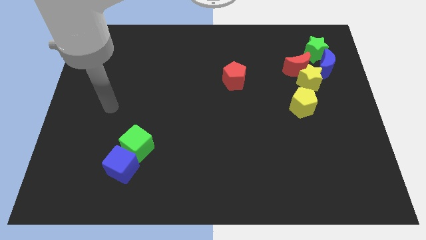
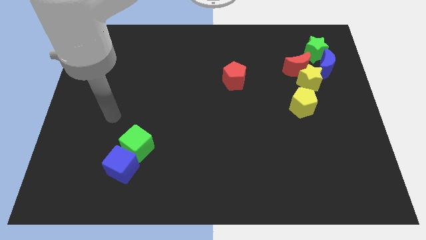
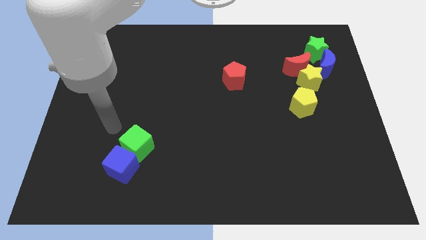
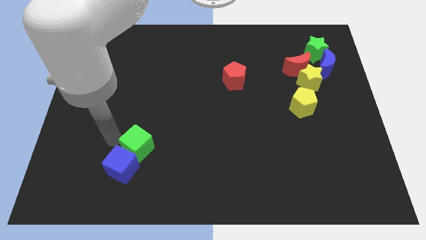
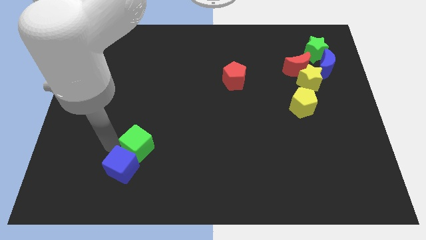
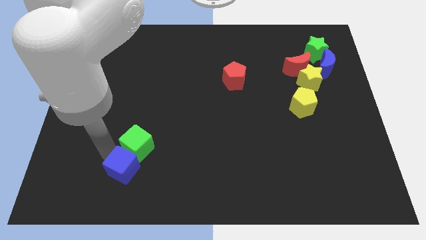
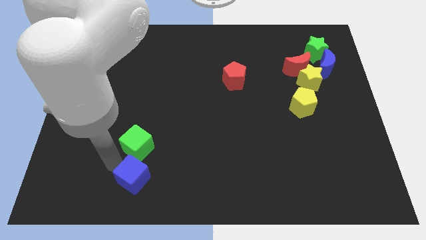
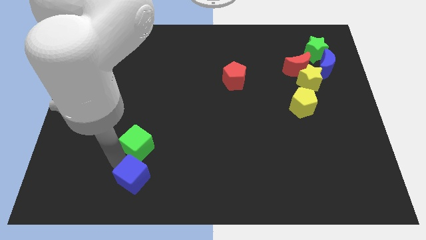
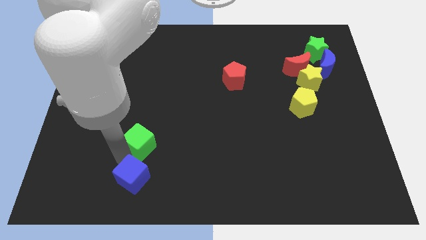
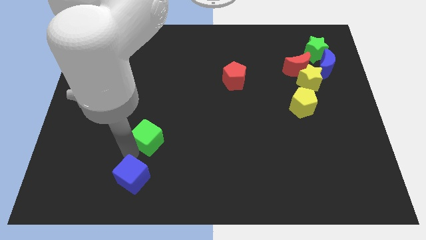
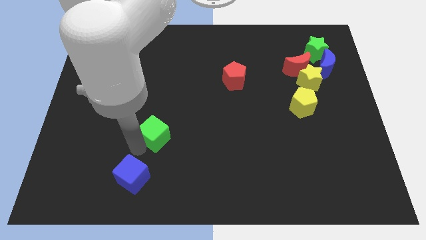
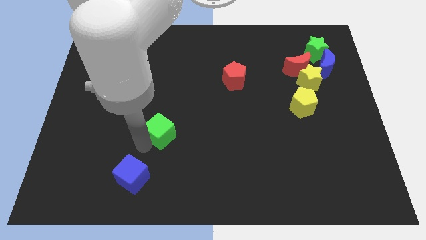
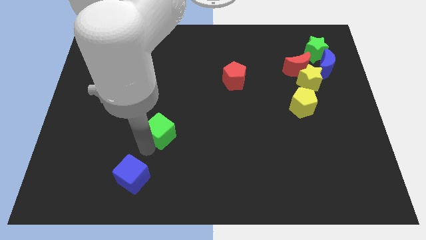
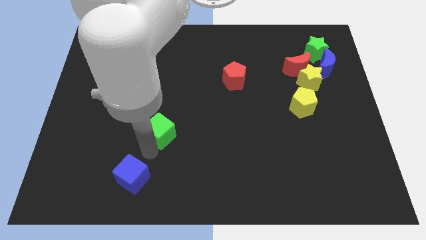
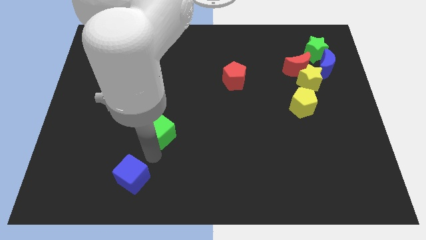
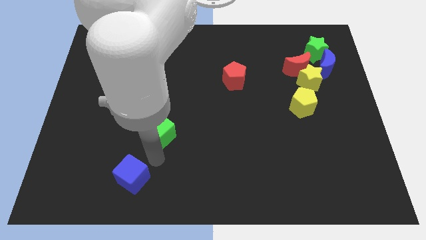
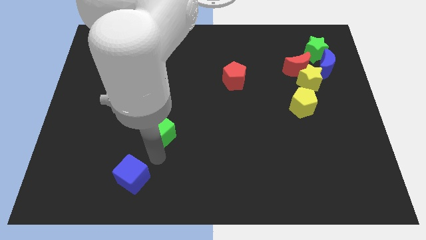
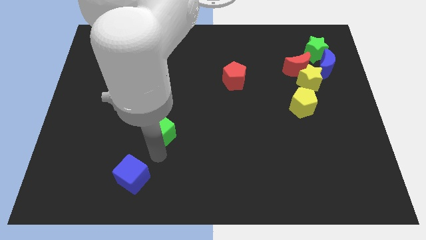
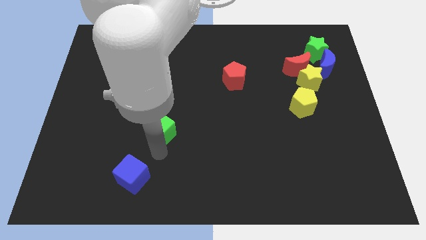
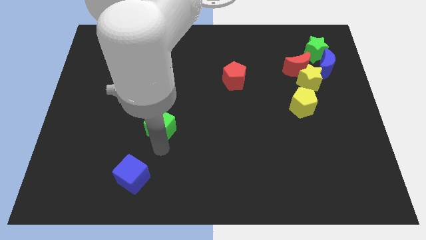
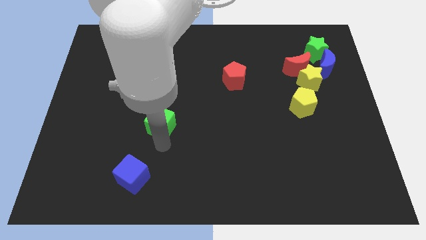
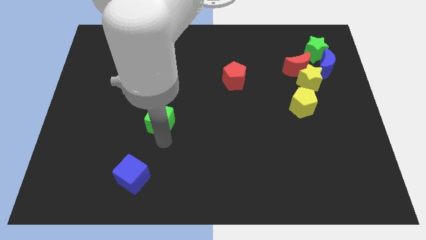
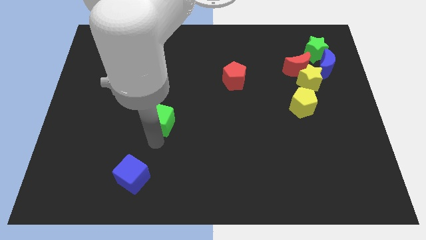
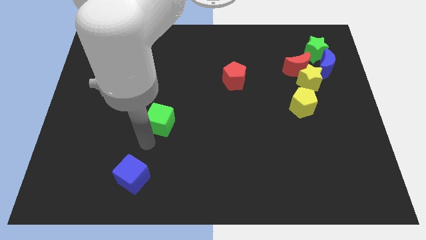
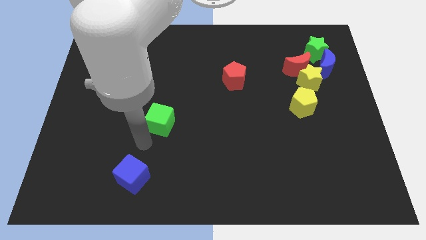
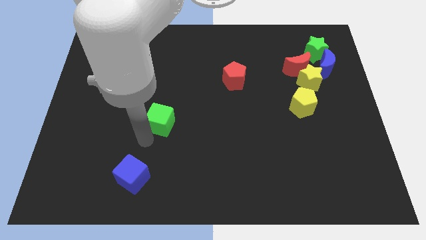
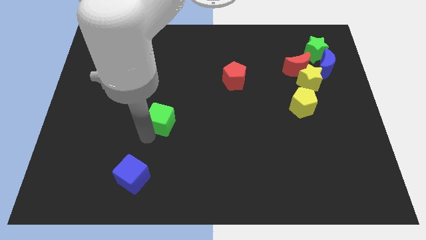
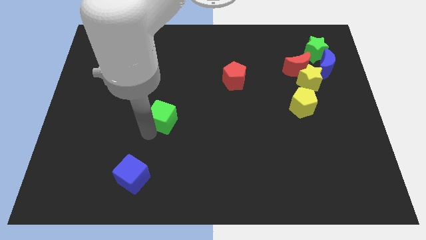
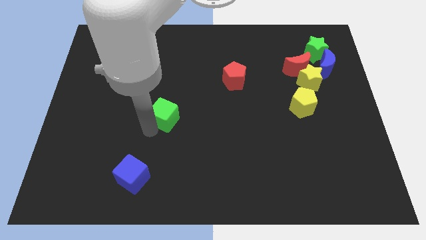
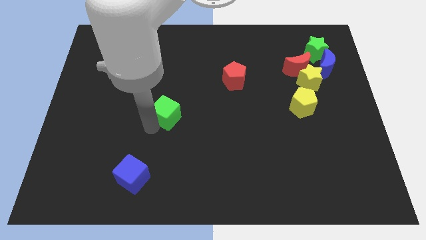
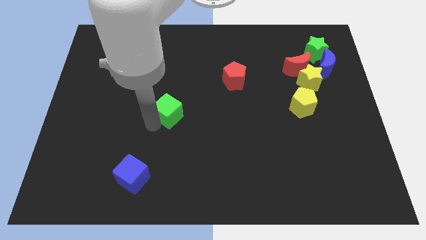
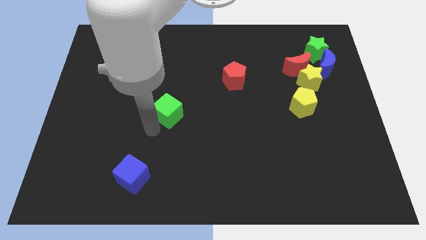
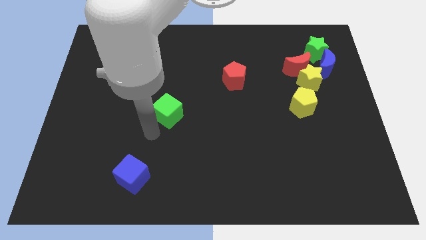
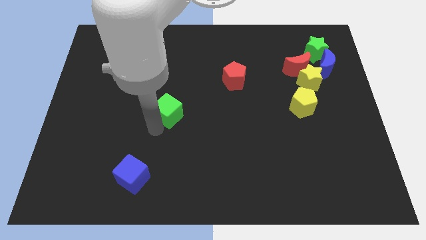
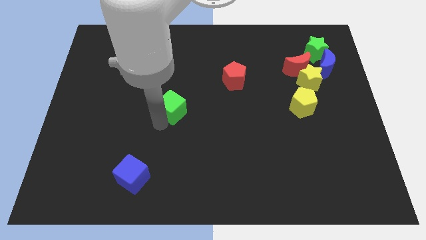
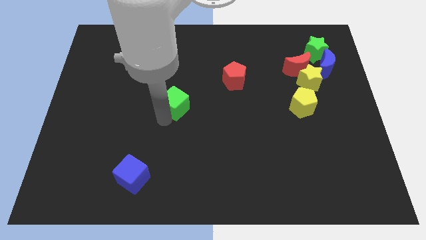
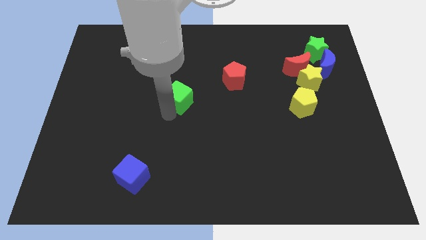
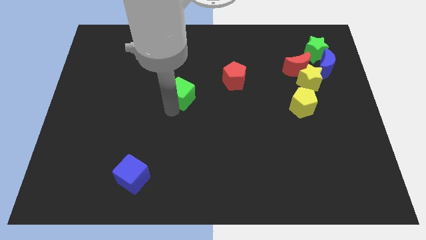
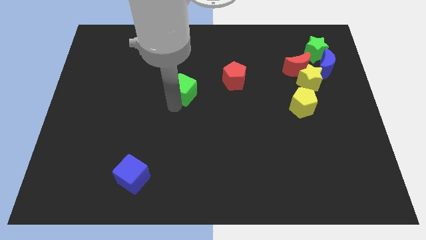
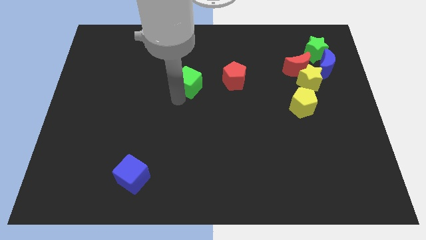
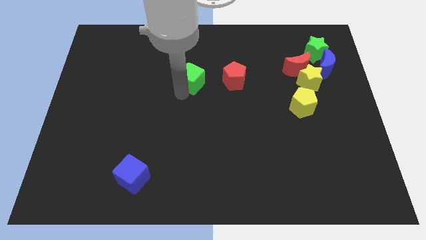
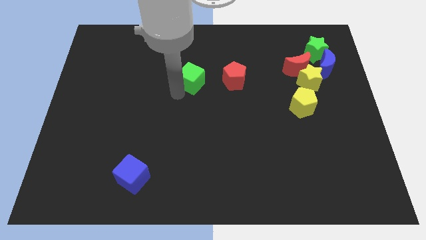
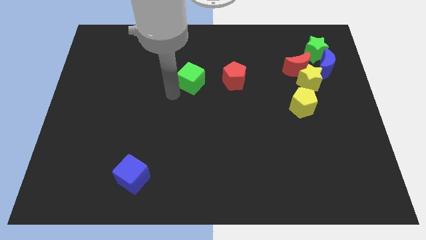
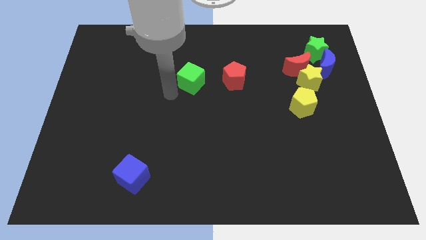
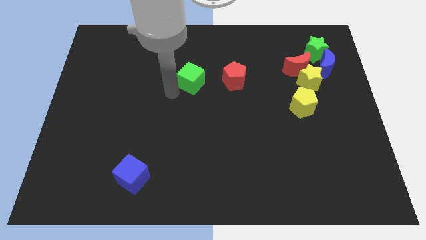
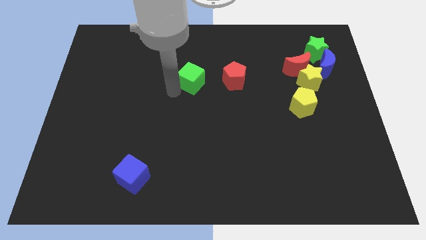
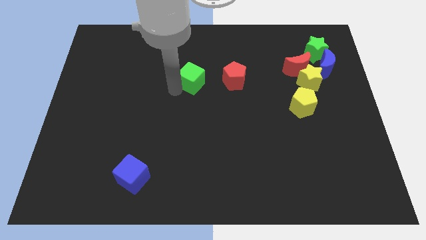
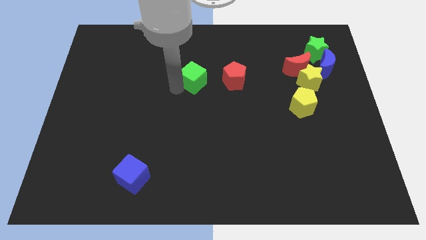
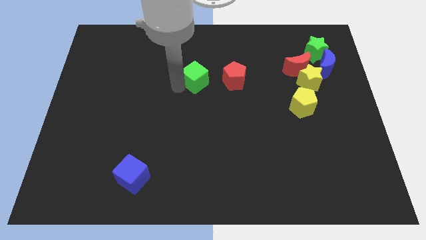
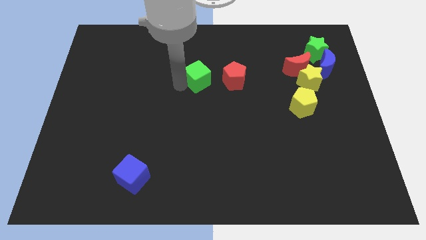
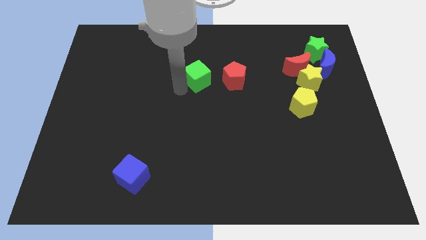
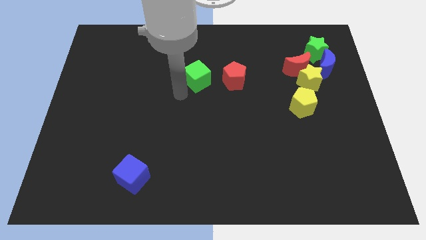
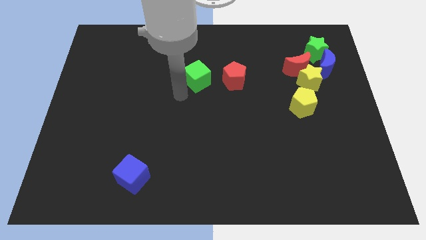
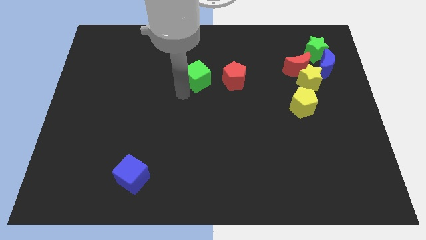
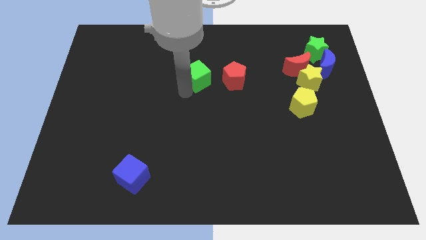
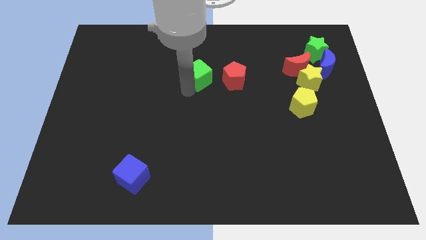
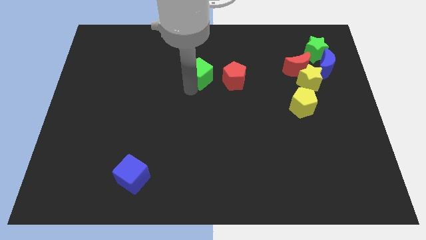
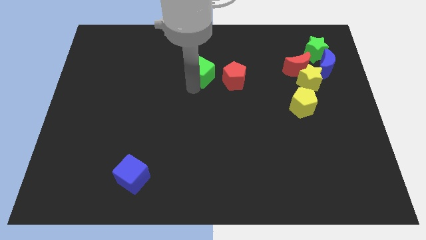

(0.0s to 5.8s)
move the green cube to the top left of the red pentagon

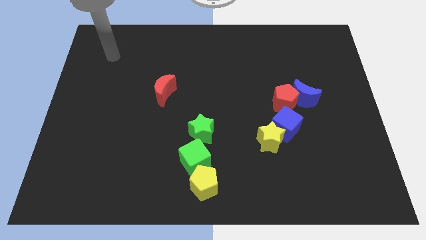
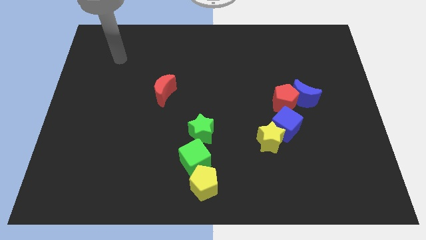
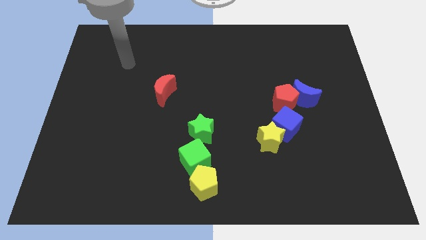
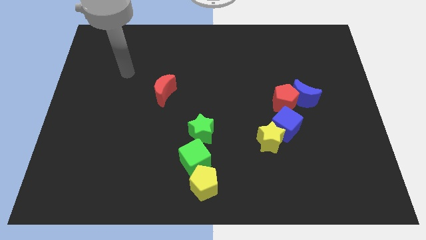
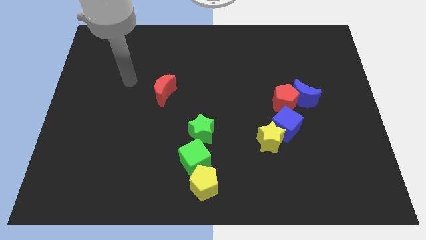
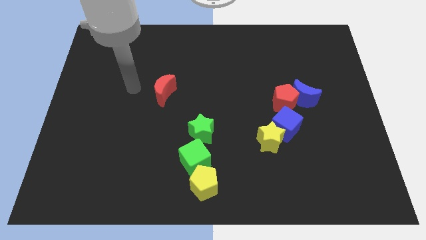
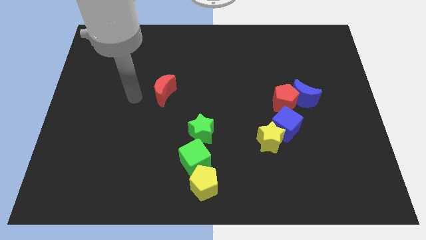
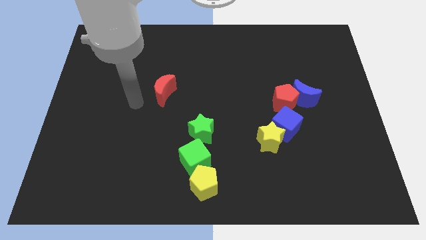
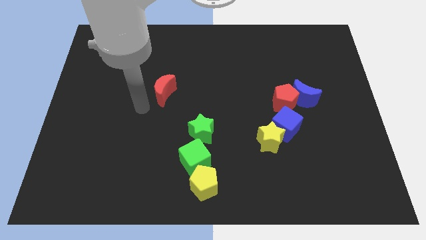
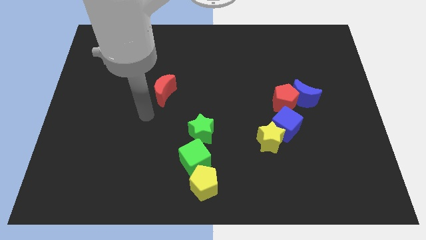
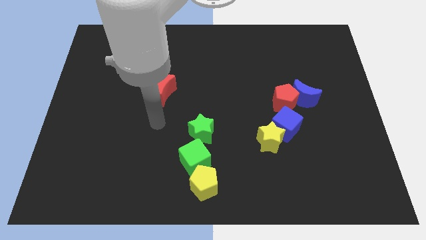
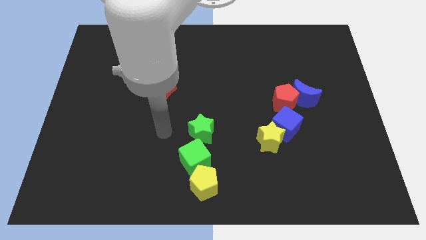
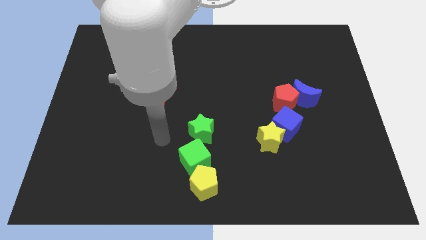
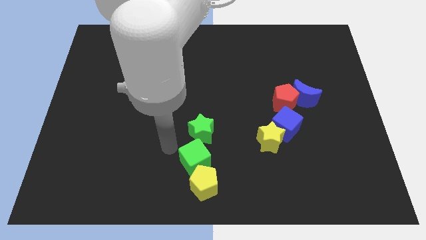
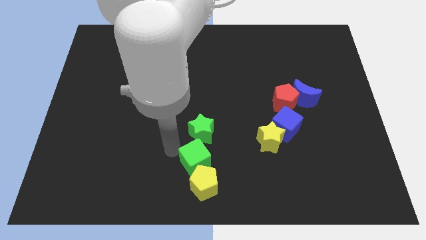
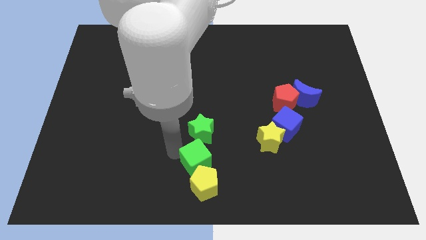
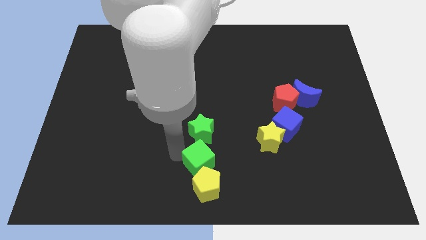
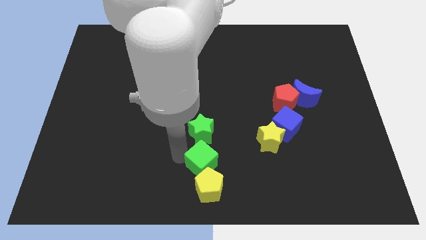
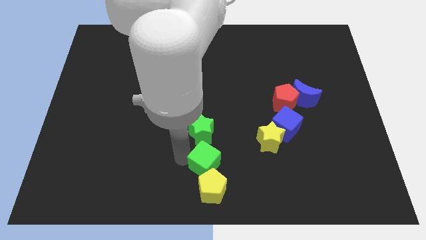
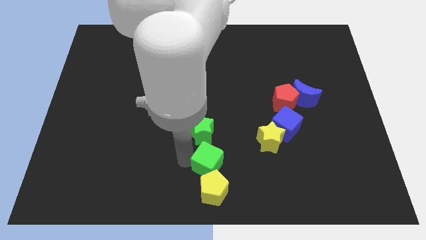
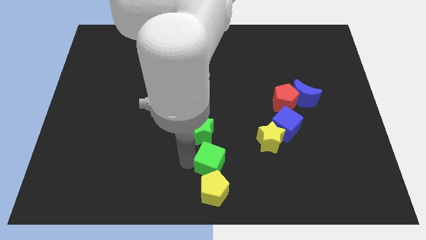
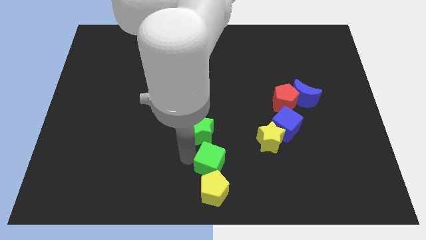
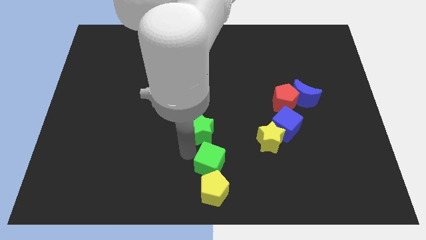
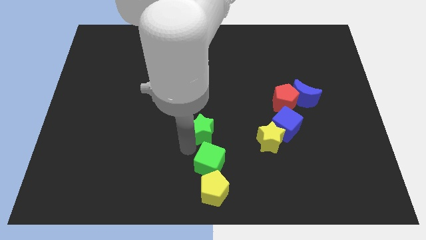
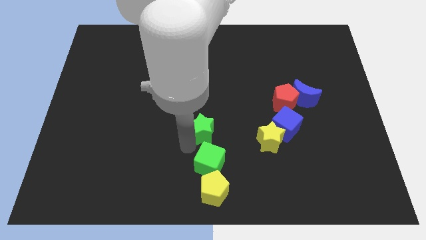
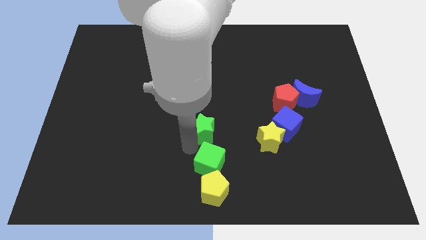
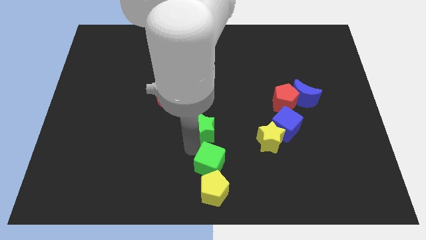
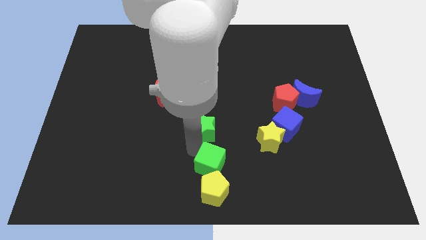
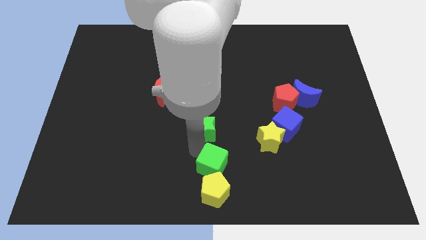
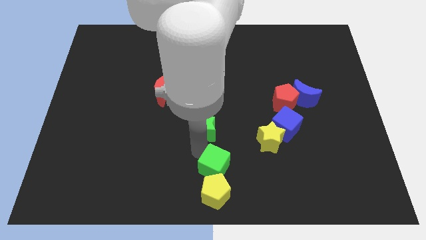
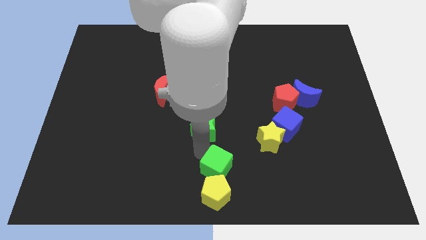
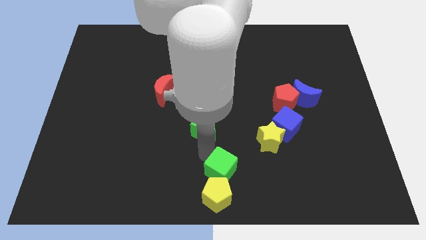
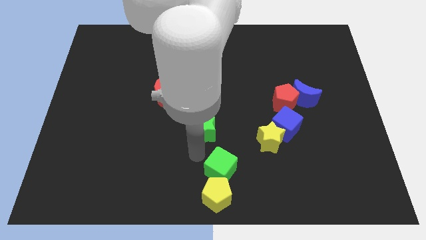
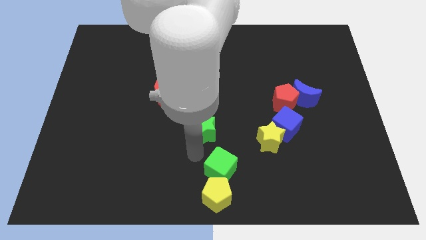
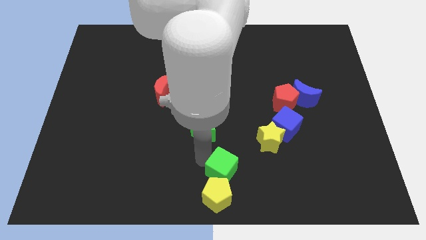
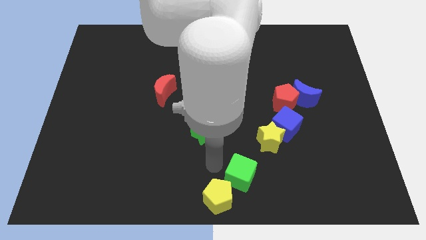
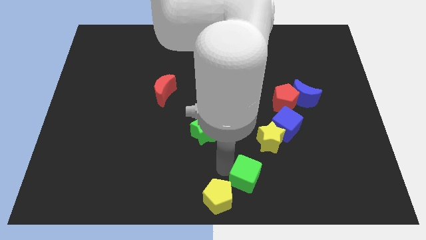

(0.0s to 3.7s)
slide the green cube just right of the yellow pentagon
